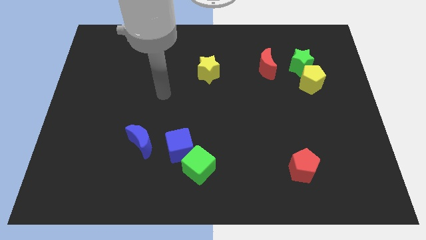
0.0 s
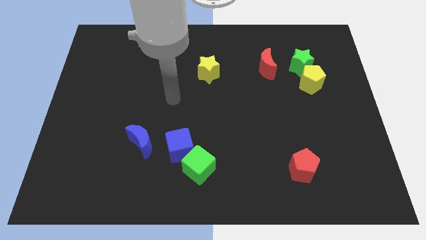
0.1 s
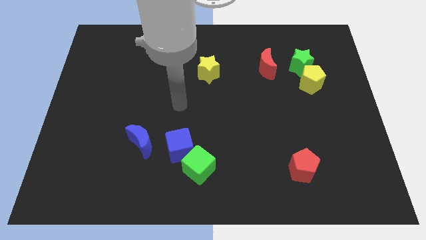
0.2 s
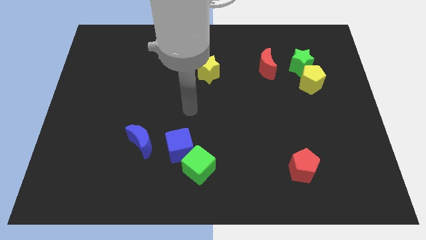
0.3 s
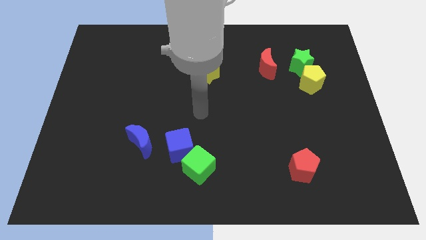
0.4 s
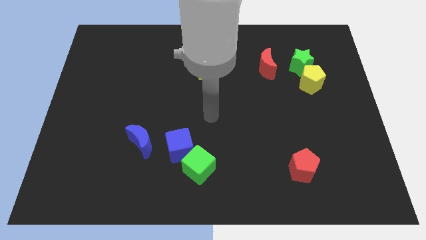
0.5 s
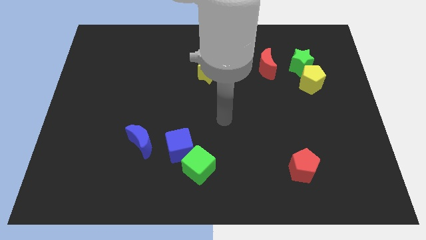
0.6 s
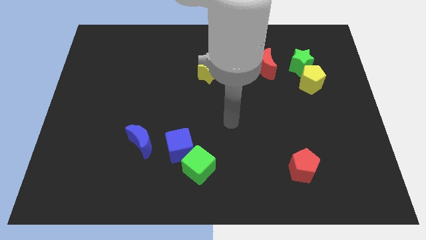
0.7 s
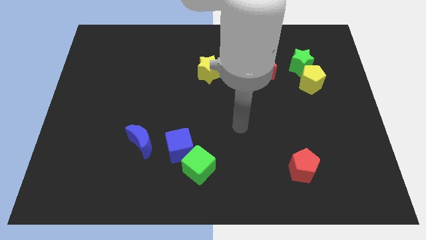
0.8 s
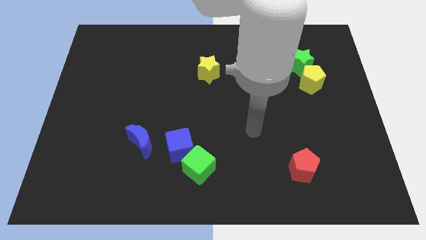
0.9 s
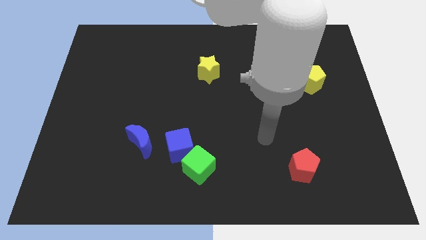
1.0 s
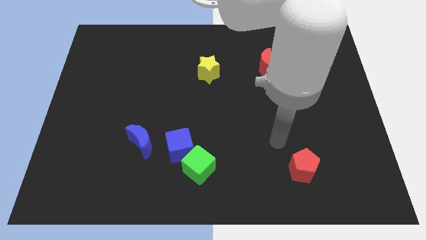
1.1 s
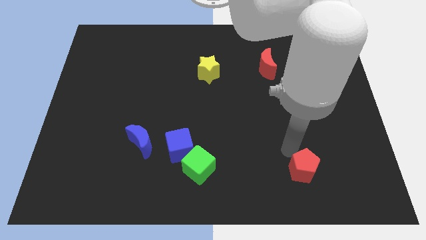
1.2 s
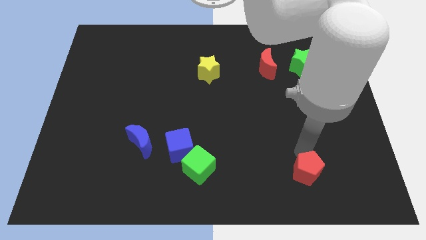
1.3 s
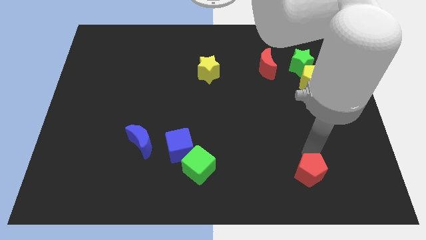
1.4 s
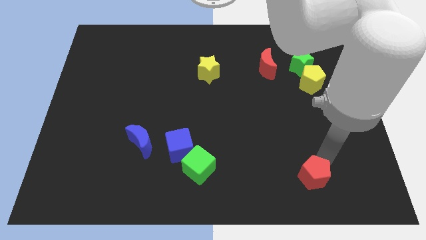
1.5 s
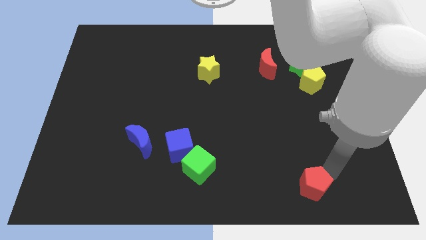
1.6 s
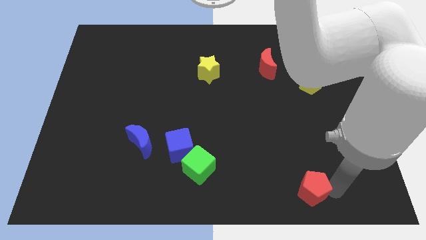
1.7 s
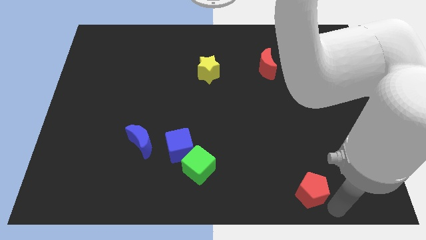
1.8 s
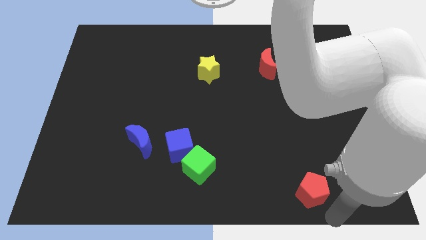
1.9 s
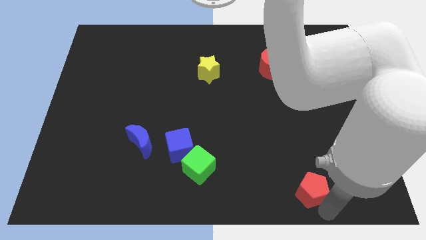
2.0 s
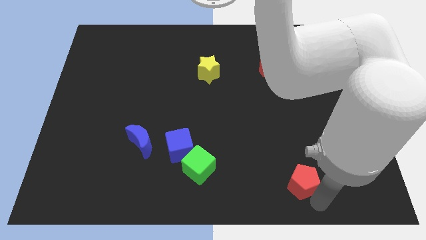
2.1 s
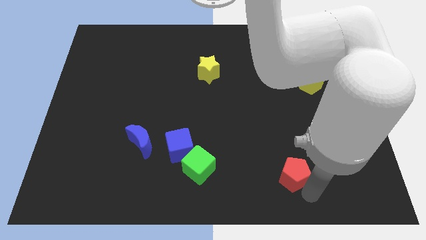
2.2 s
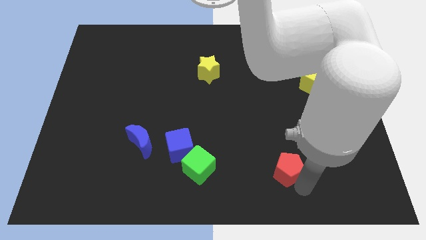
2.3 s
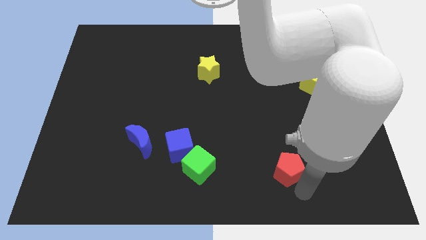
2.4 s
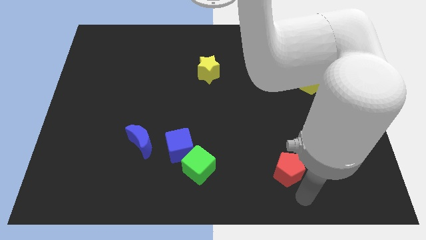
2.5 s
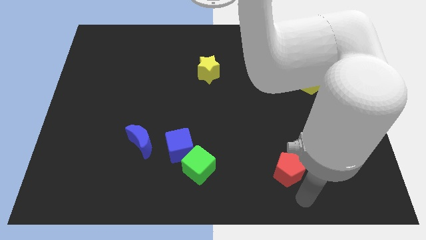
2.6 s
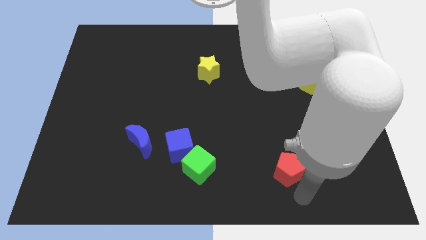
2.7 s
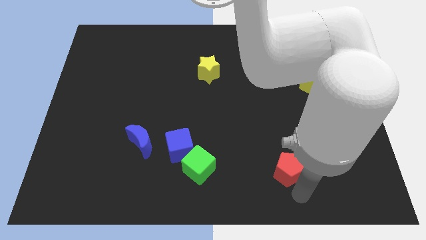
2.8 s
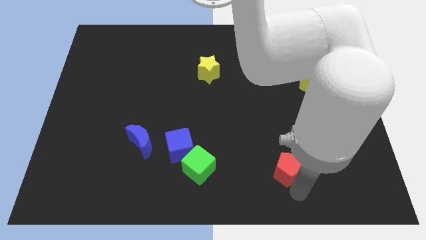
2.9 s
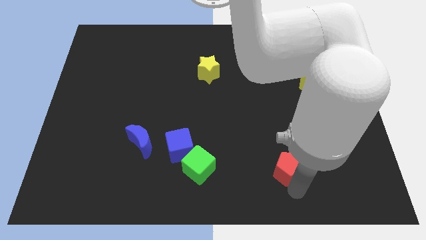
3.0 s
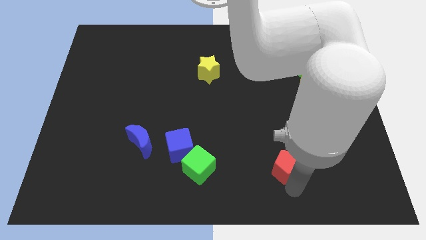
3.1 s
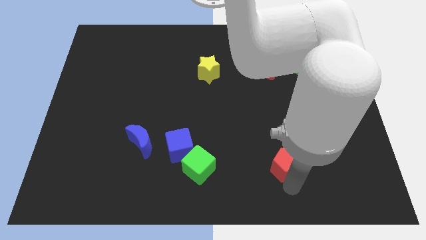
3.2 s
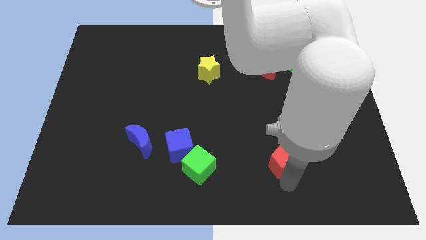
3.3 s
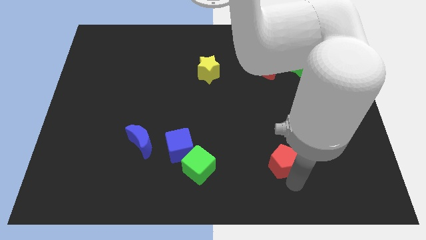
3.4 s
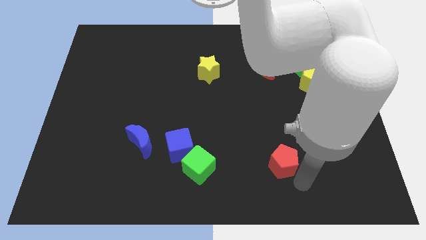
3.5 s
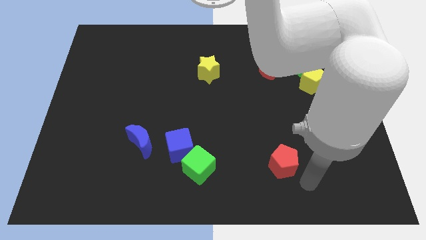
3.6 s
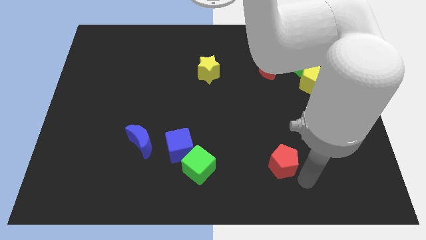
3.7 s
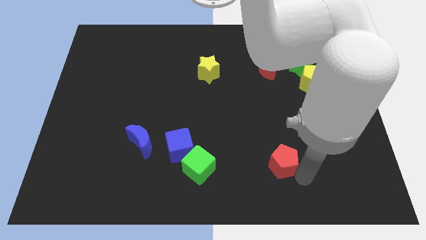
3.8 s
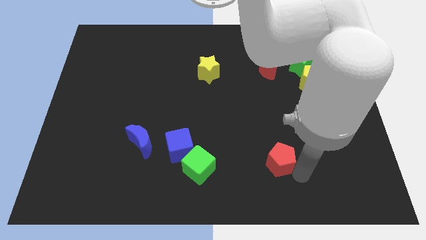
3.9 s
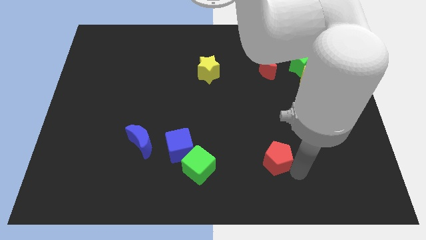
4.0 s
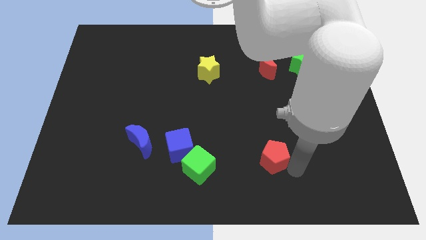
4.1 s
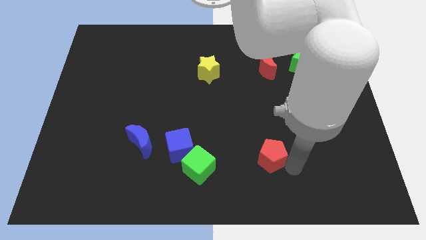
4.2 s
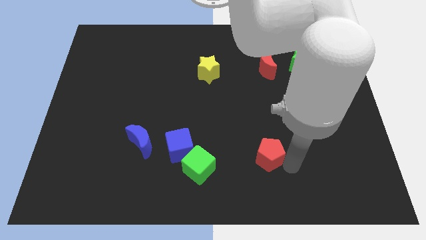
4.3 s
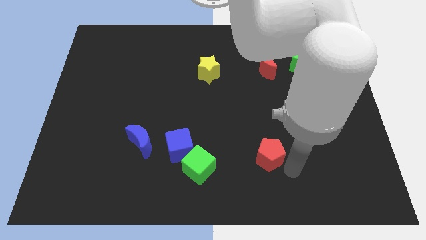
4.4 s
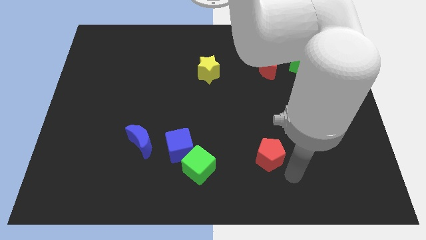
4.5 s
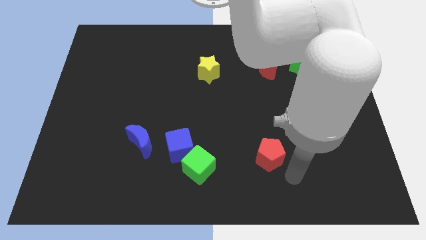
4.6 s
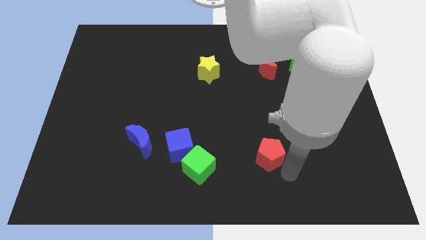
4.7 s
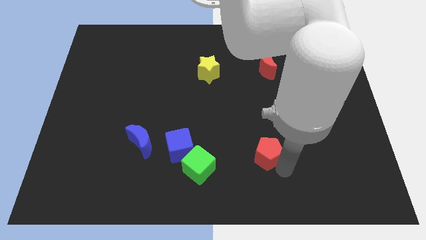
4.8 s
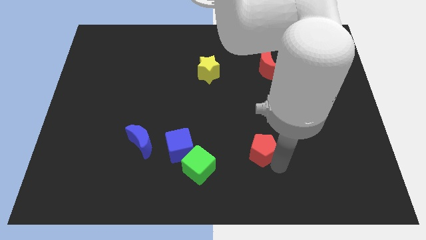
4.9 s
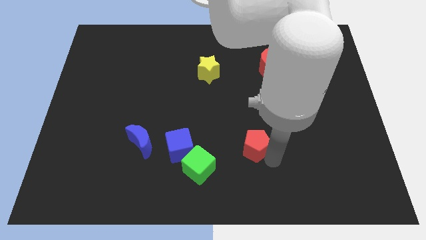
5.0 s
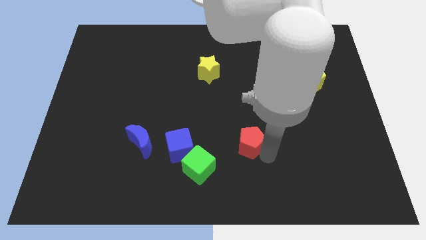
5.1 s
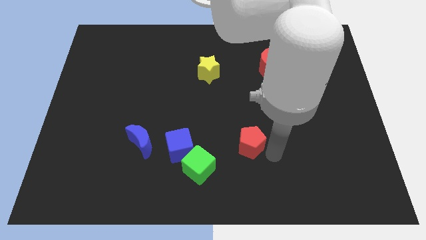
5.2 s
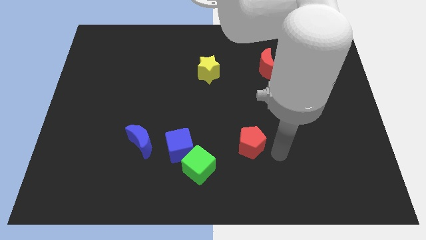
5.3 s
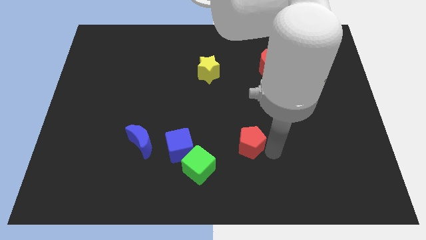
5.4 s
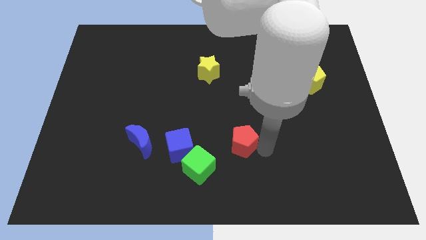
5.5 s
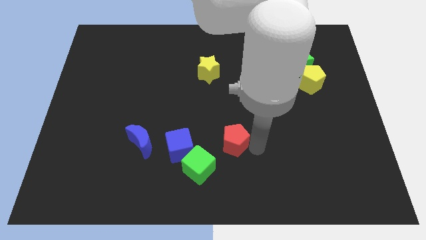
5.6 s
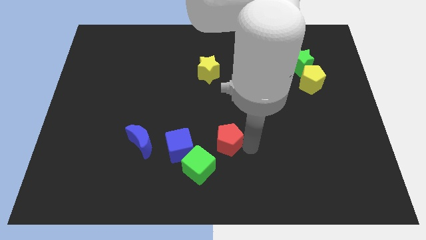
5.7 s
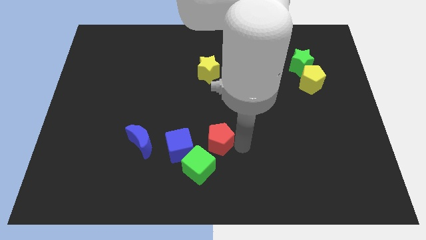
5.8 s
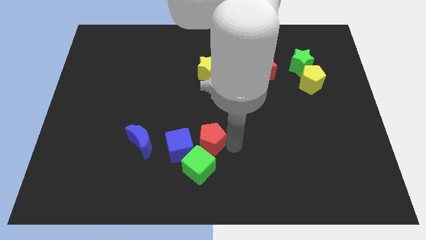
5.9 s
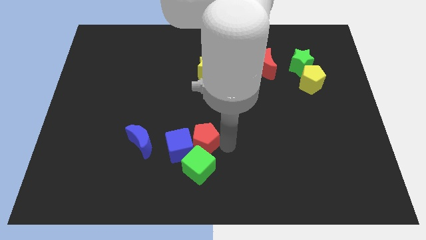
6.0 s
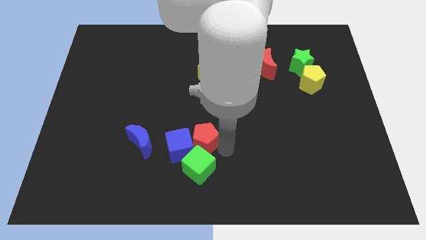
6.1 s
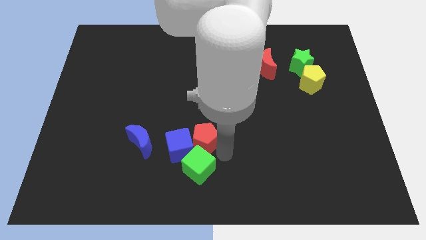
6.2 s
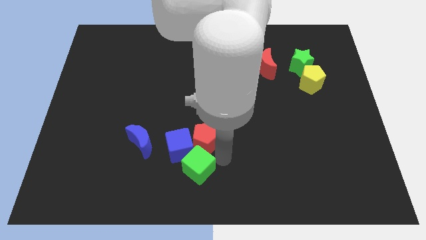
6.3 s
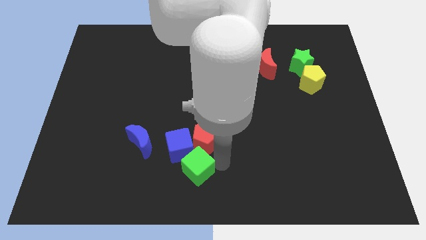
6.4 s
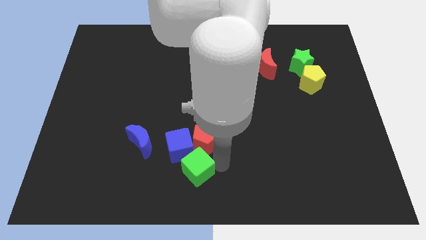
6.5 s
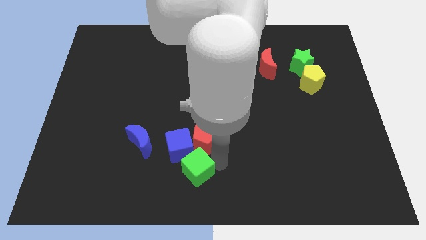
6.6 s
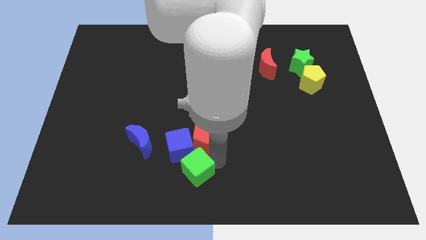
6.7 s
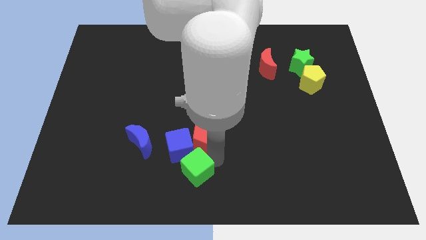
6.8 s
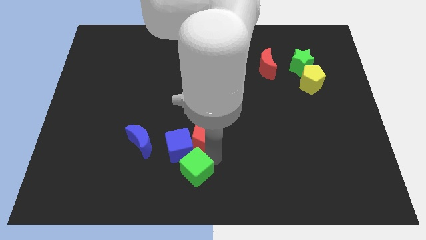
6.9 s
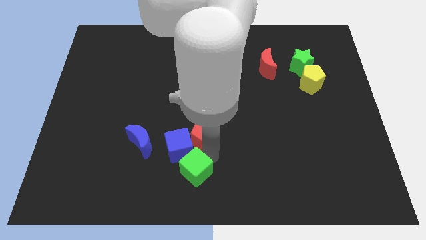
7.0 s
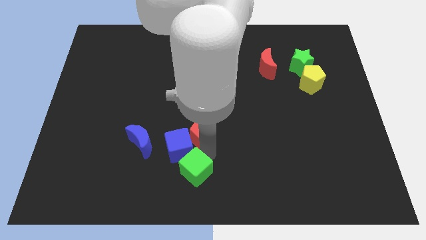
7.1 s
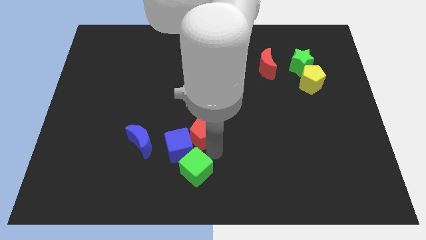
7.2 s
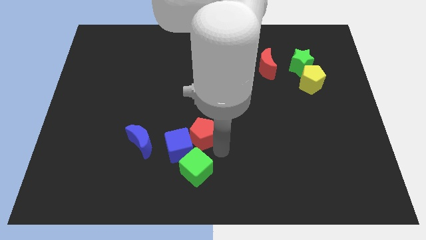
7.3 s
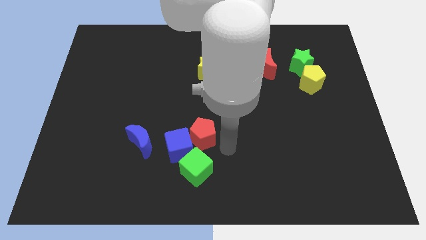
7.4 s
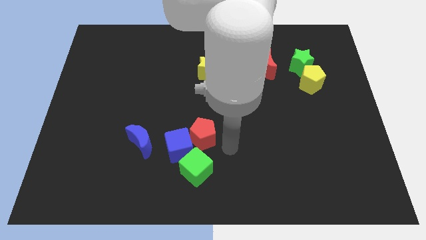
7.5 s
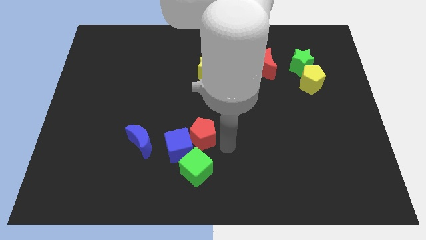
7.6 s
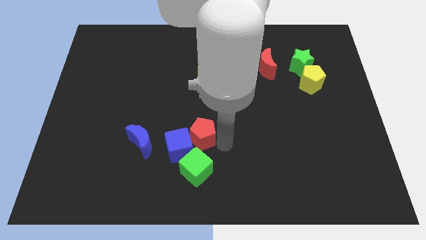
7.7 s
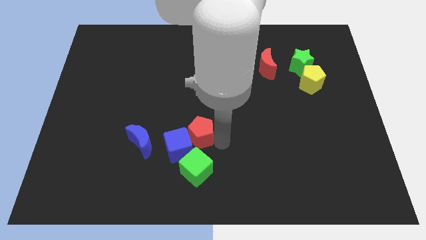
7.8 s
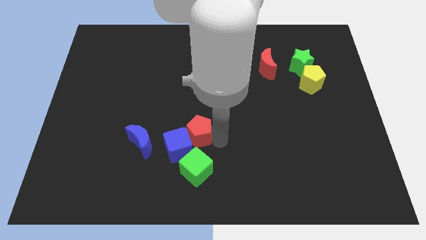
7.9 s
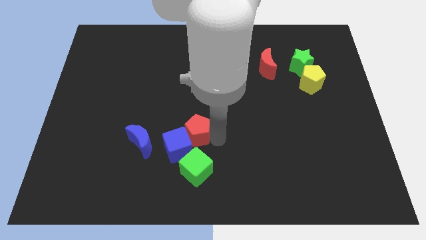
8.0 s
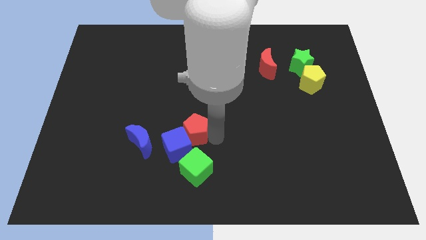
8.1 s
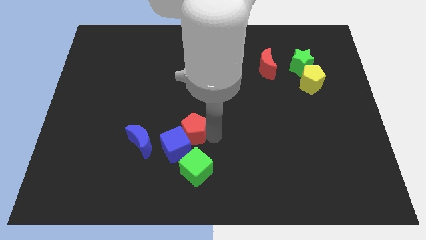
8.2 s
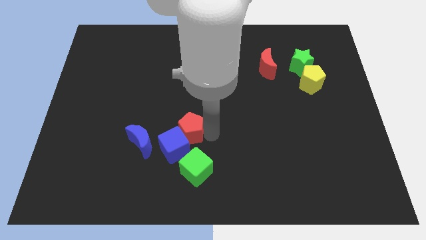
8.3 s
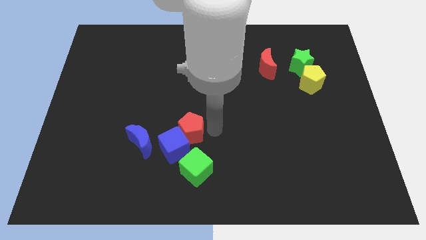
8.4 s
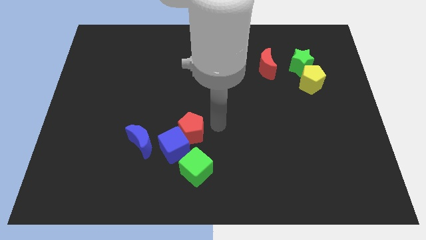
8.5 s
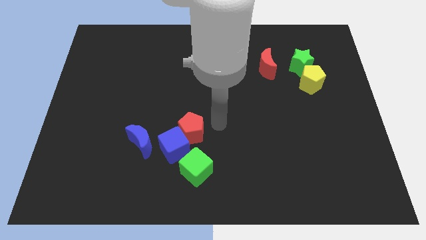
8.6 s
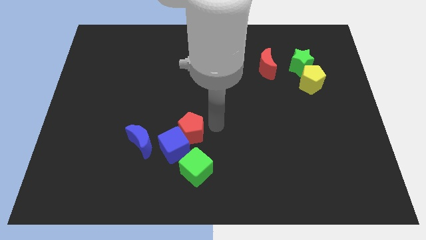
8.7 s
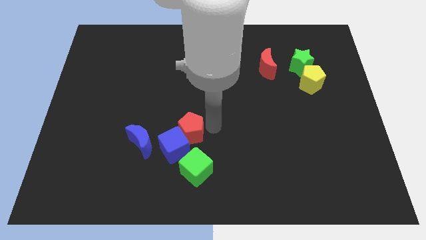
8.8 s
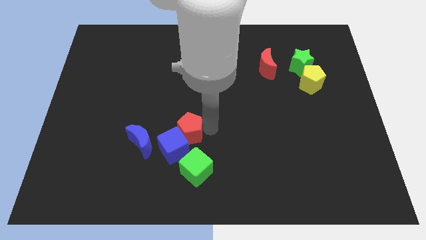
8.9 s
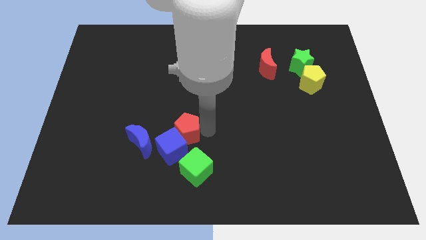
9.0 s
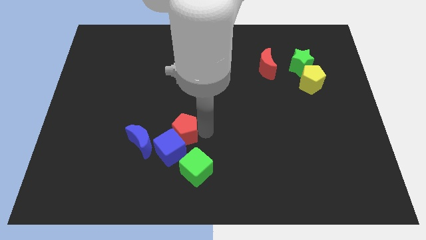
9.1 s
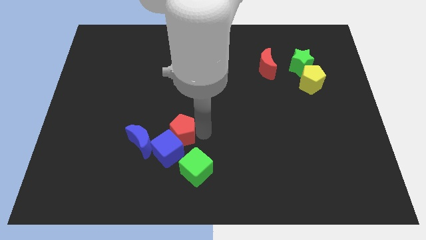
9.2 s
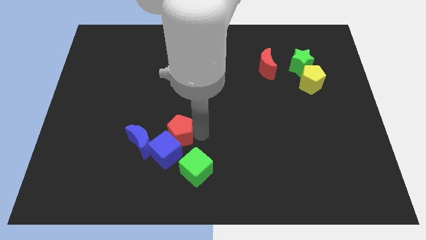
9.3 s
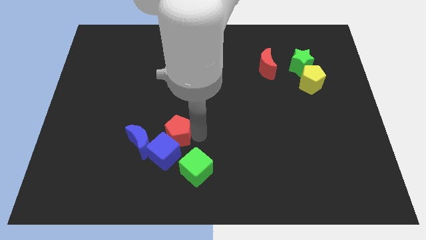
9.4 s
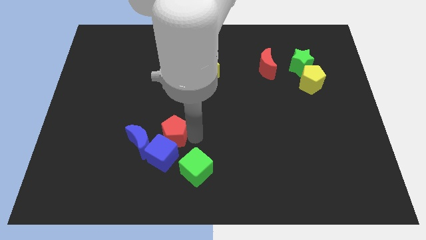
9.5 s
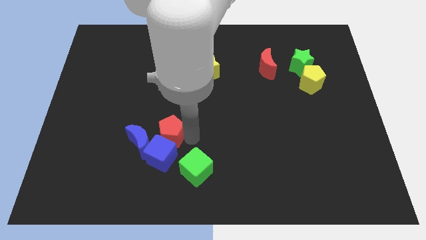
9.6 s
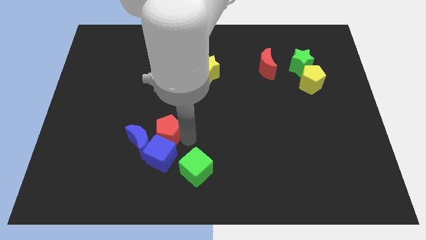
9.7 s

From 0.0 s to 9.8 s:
move the red pentagon to the blue moon
